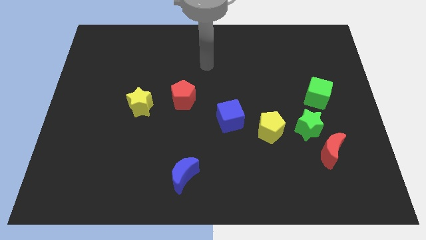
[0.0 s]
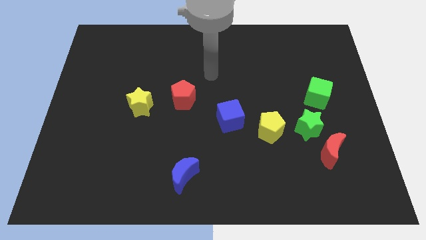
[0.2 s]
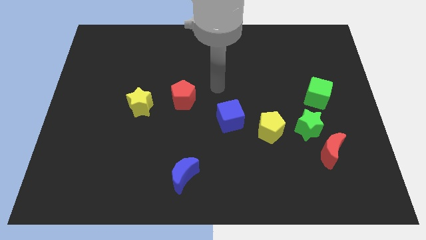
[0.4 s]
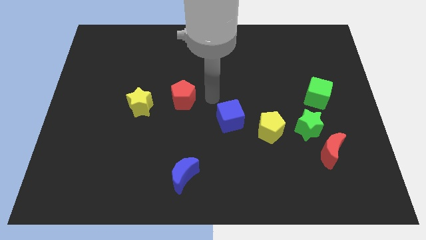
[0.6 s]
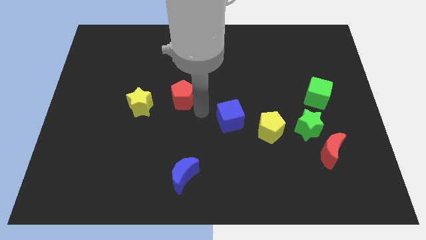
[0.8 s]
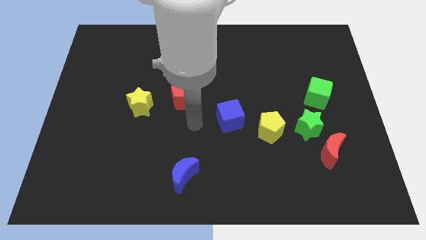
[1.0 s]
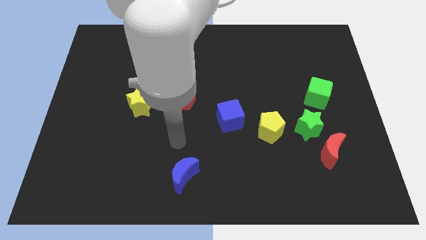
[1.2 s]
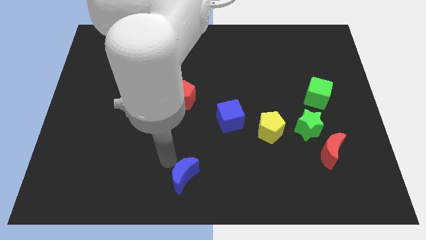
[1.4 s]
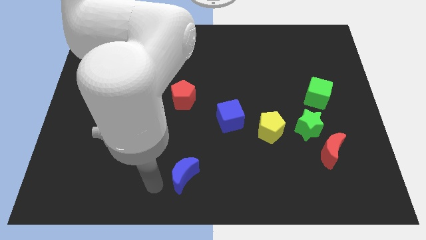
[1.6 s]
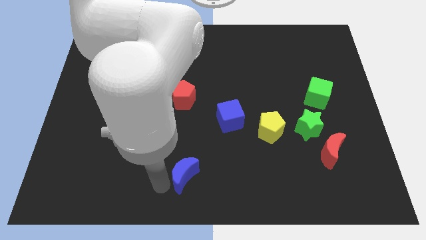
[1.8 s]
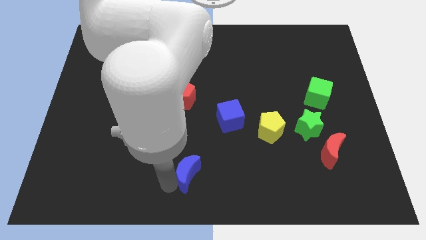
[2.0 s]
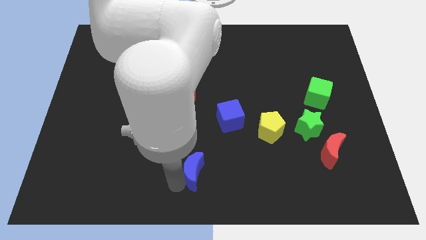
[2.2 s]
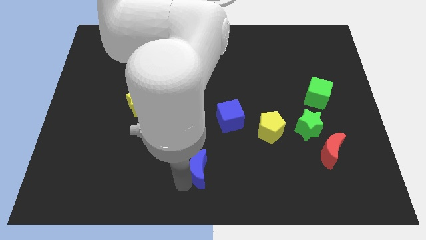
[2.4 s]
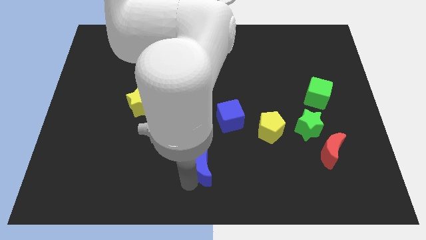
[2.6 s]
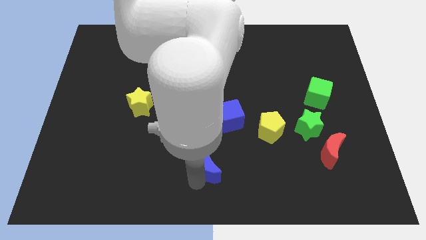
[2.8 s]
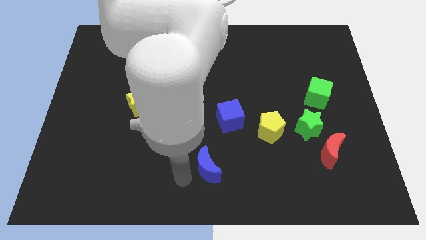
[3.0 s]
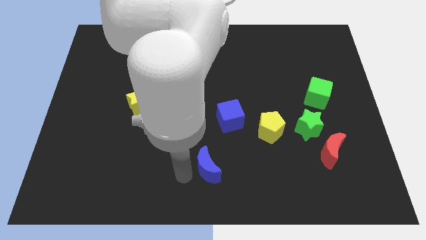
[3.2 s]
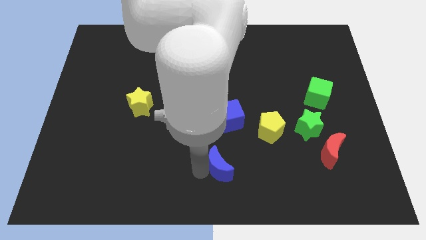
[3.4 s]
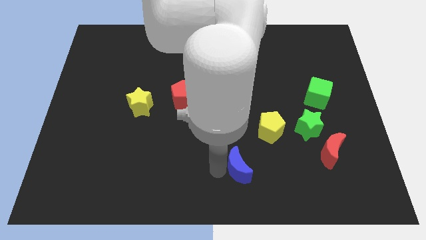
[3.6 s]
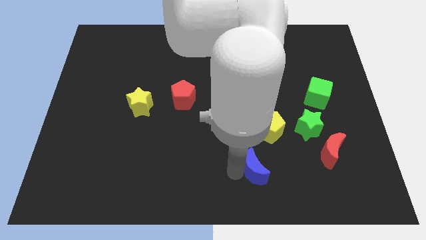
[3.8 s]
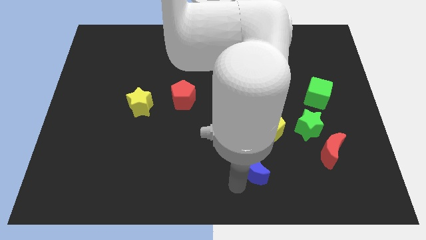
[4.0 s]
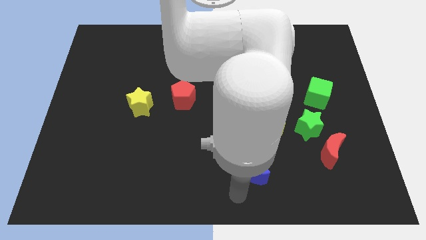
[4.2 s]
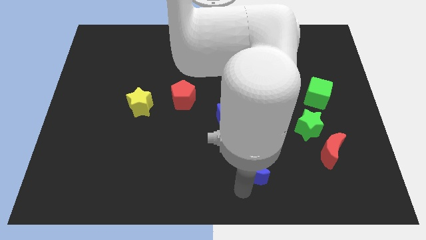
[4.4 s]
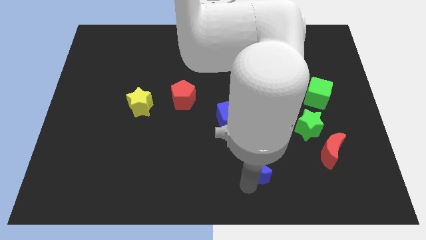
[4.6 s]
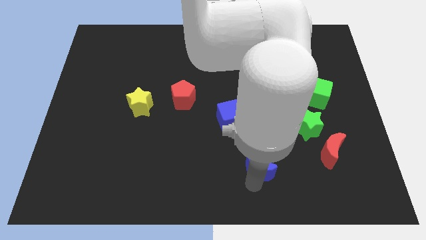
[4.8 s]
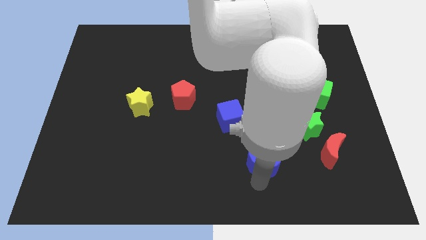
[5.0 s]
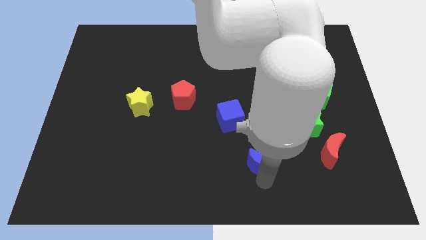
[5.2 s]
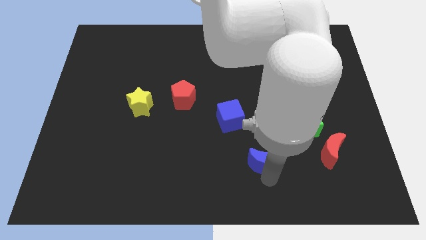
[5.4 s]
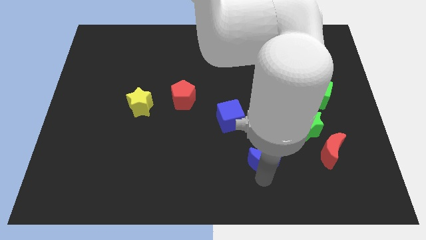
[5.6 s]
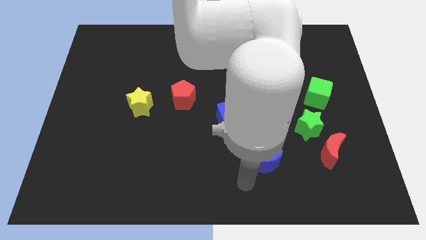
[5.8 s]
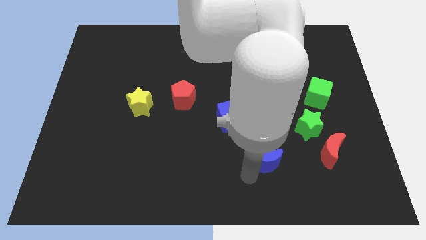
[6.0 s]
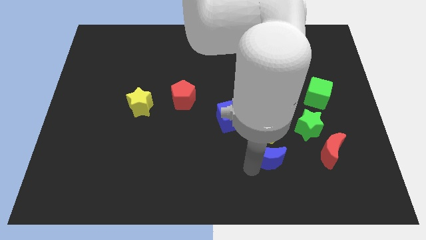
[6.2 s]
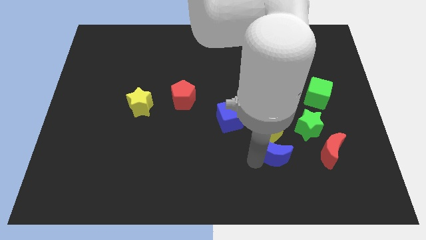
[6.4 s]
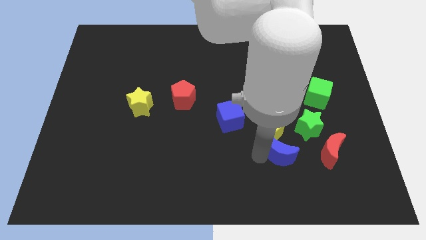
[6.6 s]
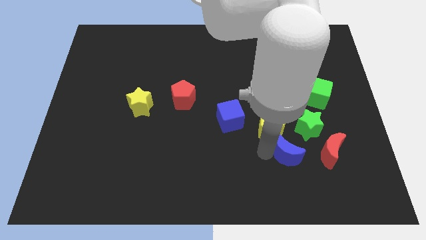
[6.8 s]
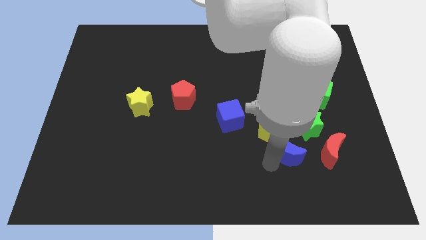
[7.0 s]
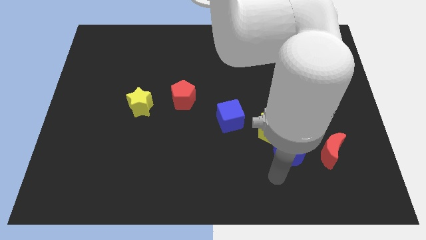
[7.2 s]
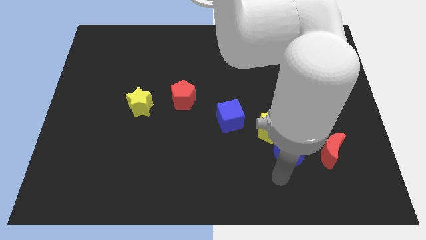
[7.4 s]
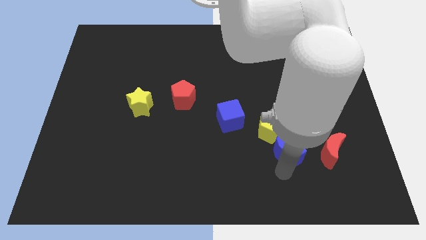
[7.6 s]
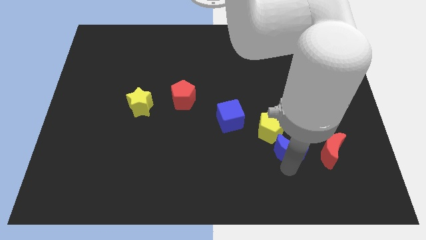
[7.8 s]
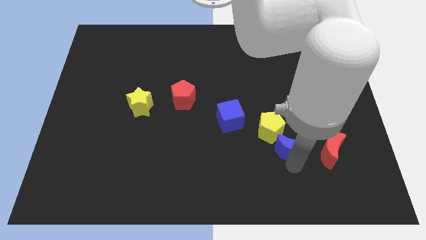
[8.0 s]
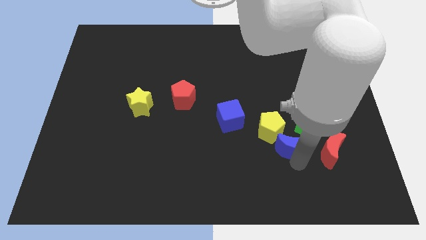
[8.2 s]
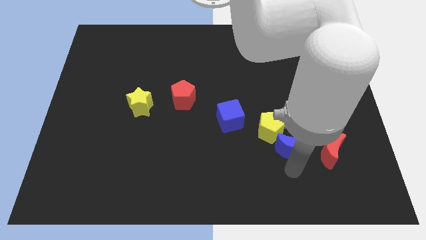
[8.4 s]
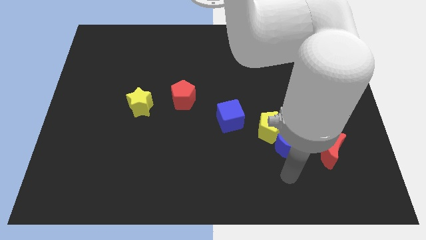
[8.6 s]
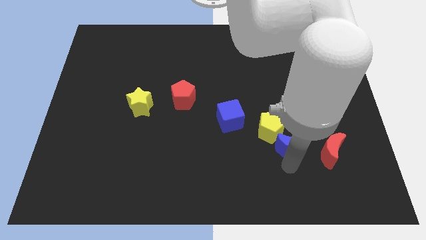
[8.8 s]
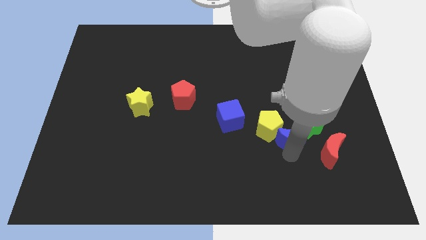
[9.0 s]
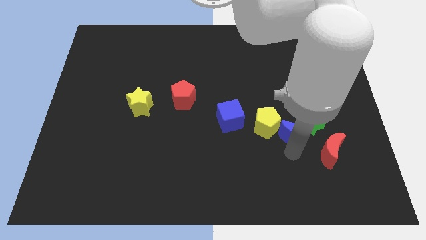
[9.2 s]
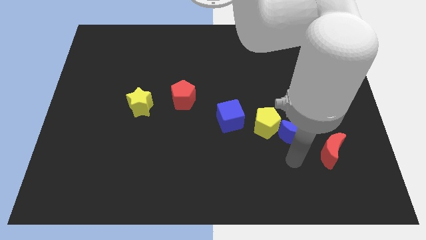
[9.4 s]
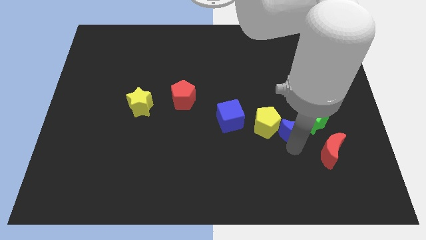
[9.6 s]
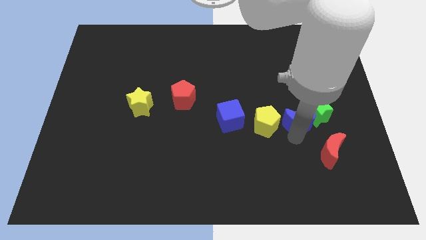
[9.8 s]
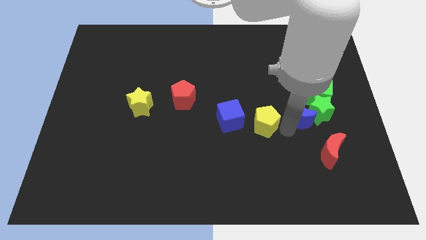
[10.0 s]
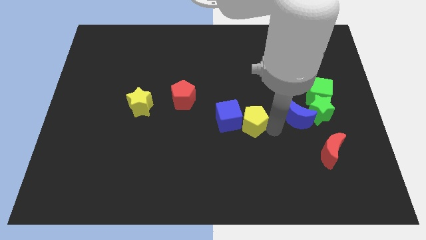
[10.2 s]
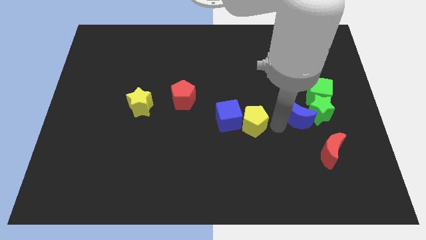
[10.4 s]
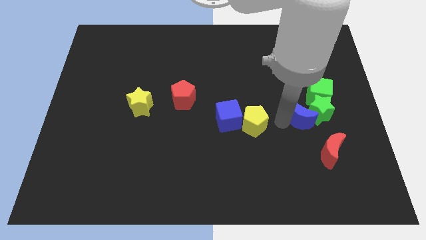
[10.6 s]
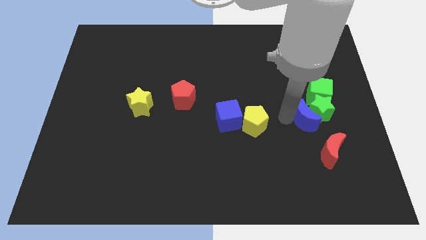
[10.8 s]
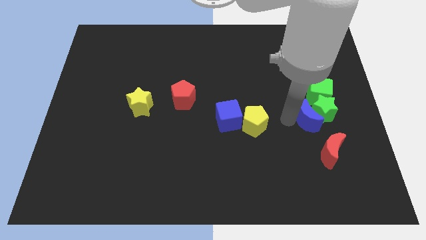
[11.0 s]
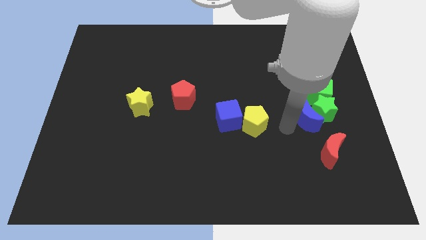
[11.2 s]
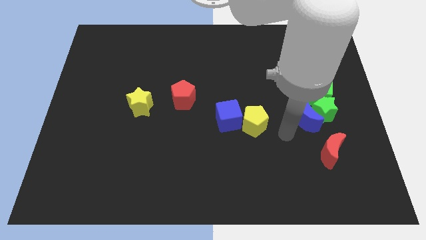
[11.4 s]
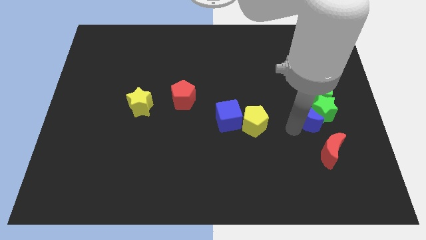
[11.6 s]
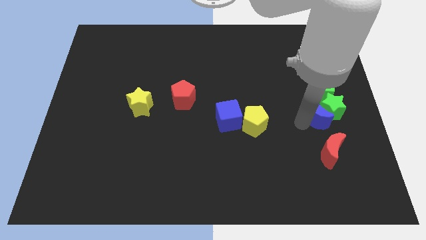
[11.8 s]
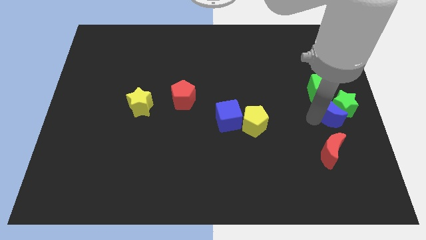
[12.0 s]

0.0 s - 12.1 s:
put the blue moon to the right side

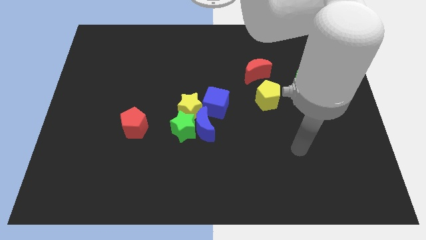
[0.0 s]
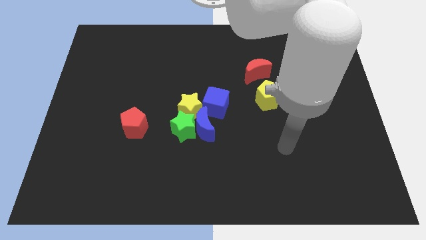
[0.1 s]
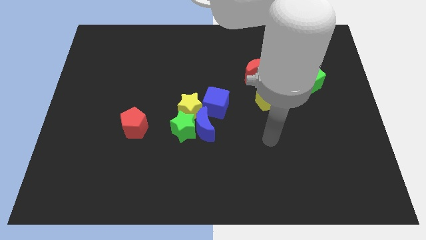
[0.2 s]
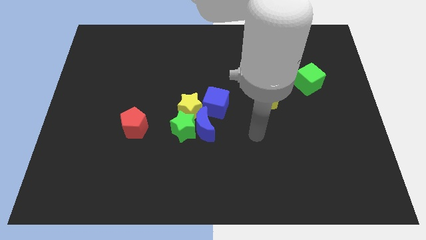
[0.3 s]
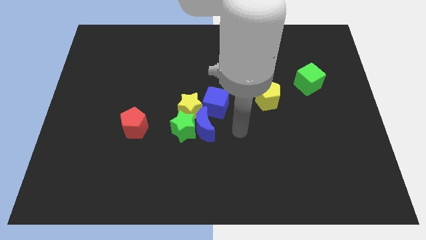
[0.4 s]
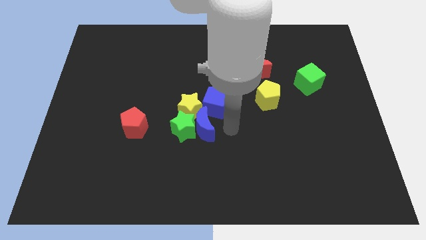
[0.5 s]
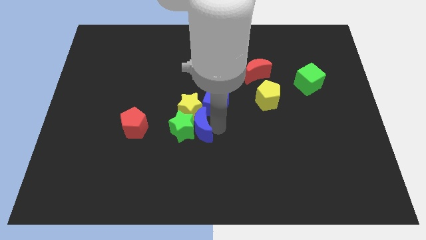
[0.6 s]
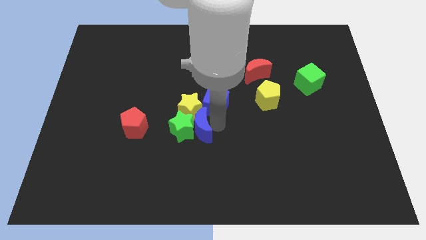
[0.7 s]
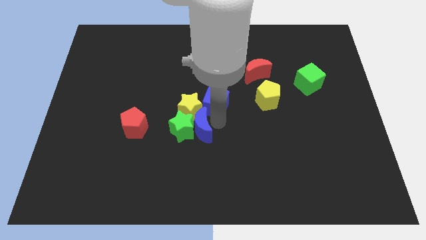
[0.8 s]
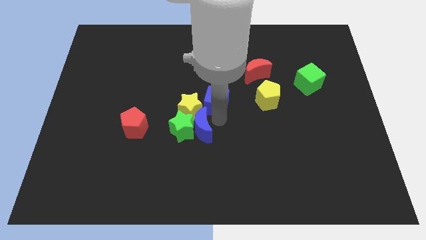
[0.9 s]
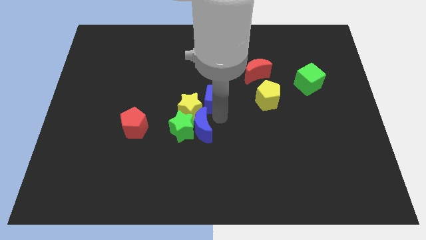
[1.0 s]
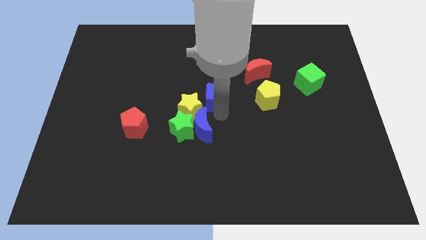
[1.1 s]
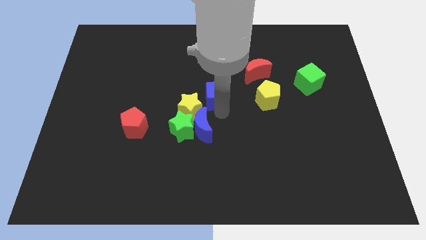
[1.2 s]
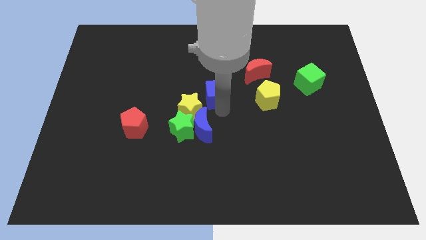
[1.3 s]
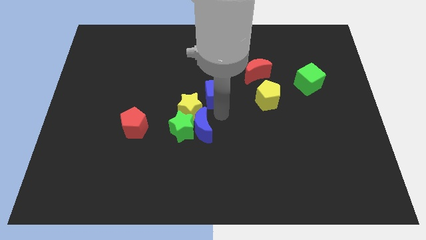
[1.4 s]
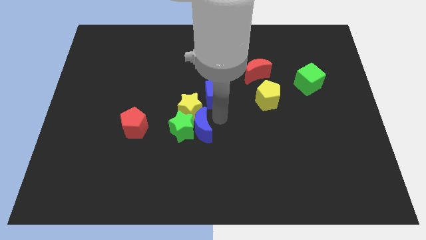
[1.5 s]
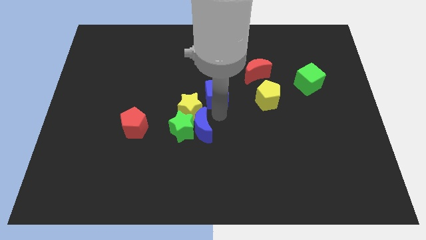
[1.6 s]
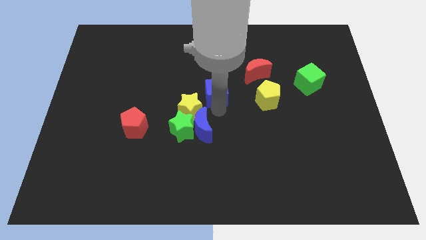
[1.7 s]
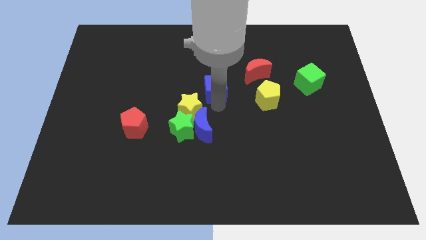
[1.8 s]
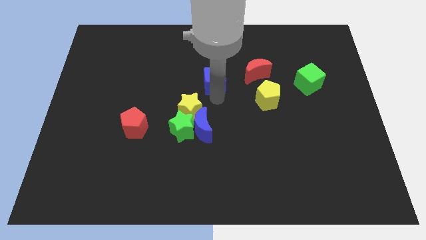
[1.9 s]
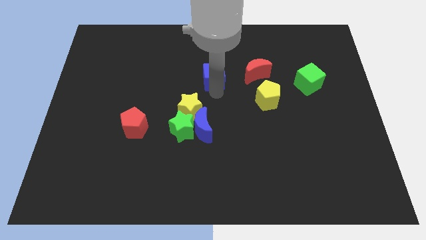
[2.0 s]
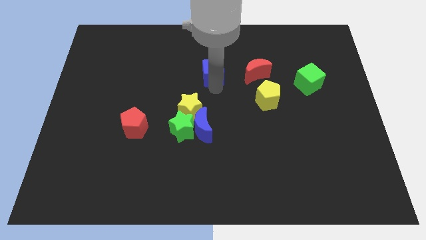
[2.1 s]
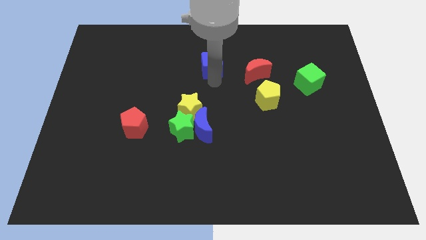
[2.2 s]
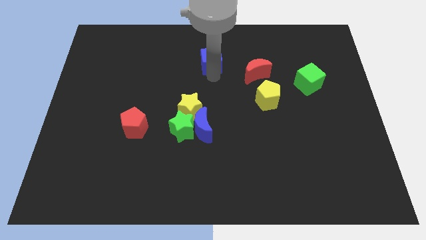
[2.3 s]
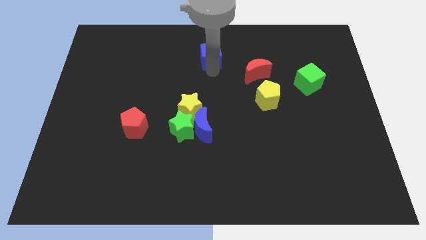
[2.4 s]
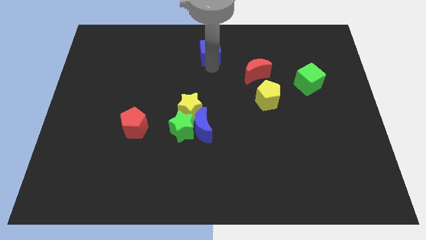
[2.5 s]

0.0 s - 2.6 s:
push the blue cube to the towards your base

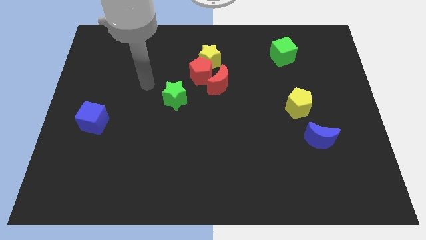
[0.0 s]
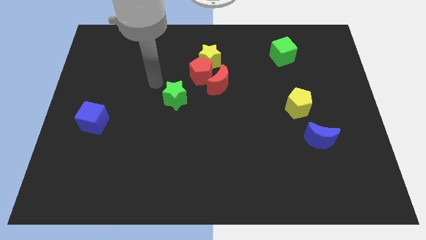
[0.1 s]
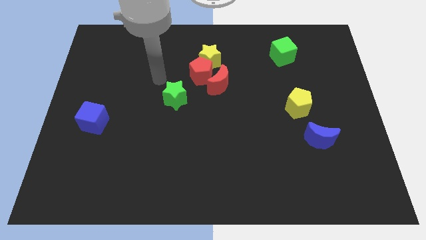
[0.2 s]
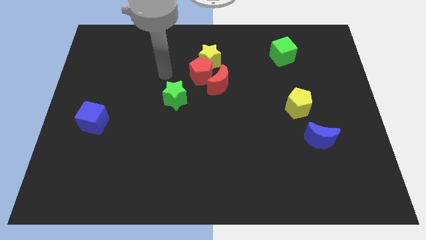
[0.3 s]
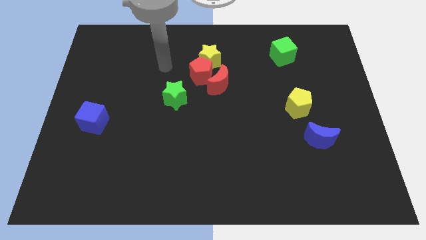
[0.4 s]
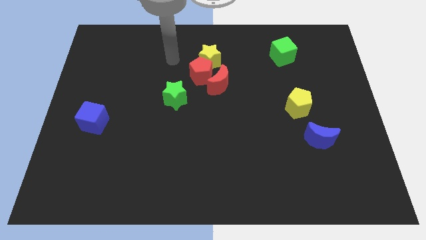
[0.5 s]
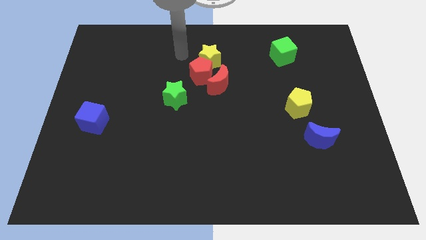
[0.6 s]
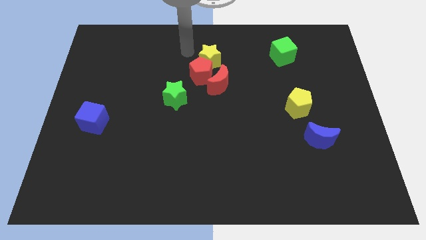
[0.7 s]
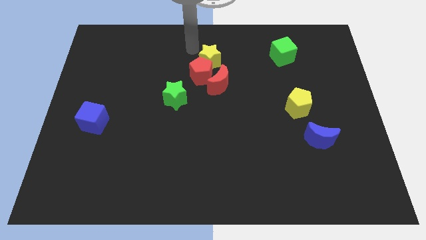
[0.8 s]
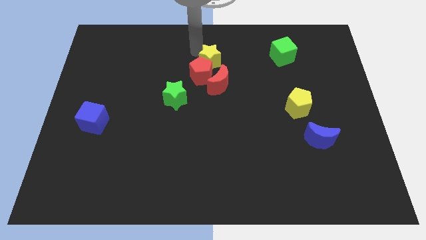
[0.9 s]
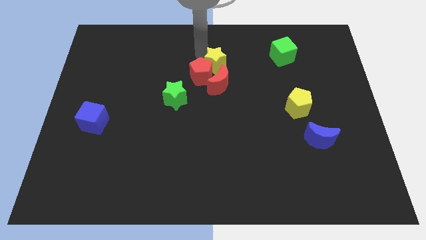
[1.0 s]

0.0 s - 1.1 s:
slide the yellow star to the center
